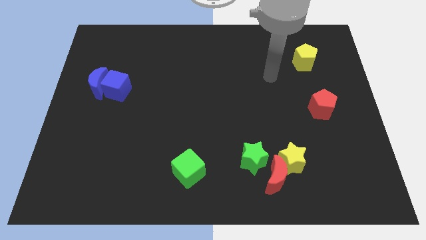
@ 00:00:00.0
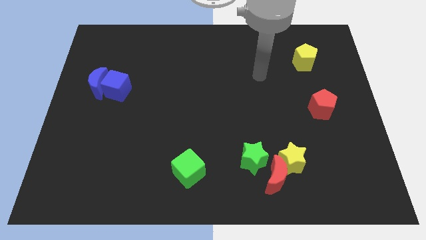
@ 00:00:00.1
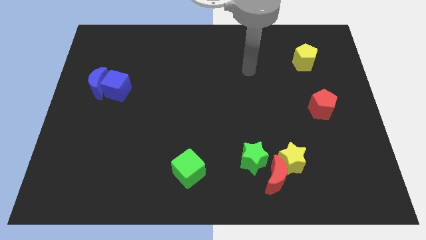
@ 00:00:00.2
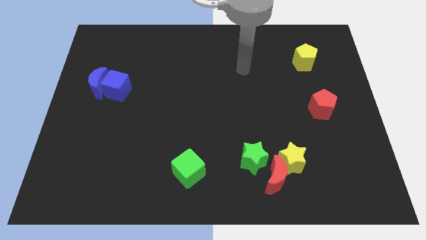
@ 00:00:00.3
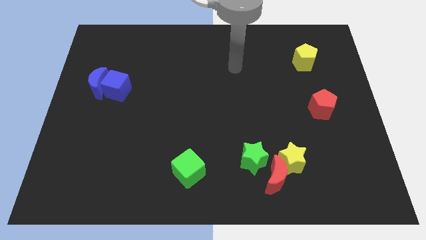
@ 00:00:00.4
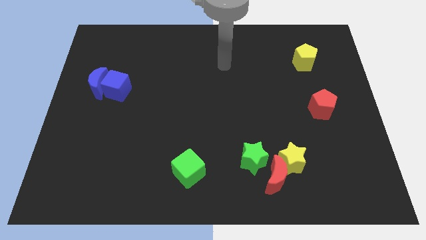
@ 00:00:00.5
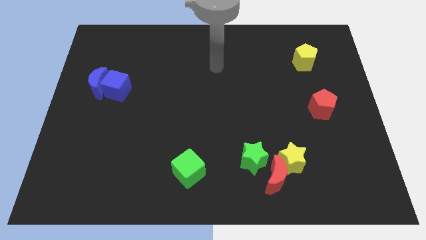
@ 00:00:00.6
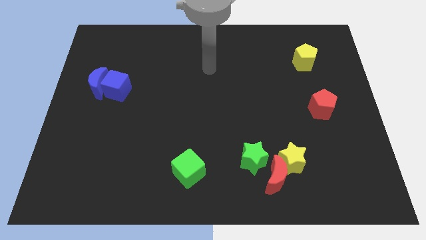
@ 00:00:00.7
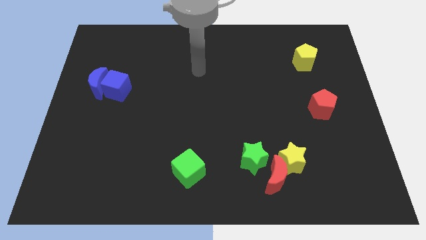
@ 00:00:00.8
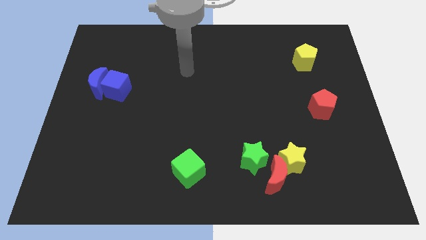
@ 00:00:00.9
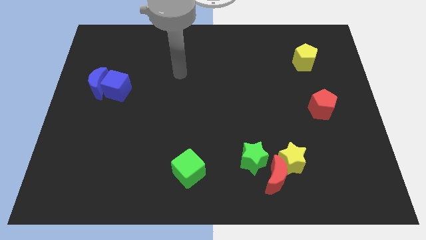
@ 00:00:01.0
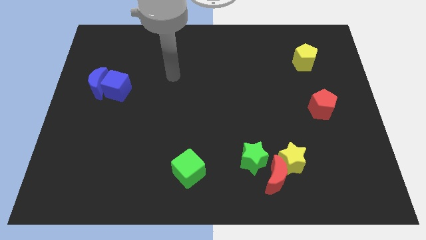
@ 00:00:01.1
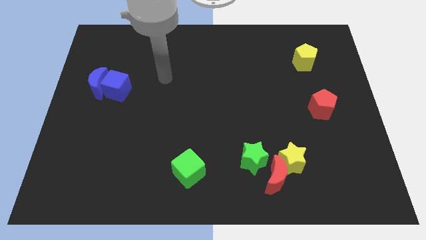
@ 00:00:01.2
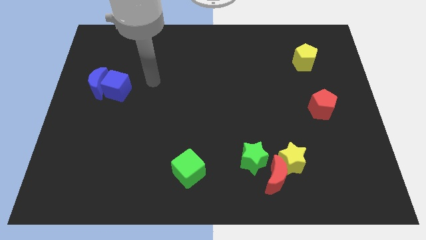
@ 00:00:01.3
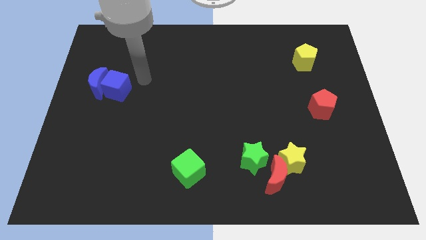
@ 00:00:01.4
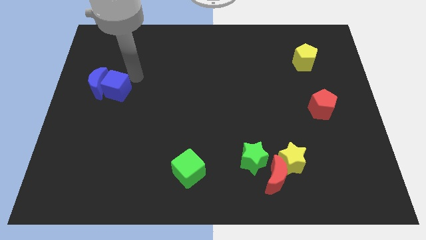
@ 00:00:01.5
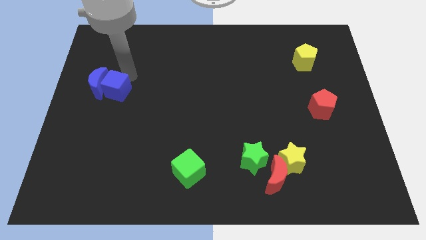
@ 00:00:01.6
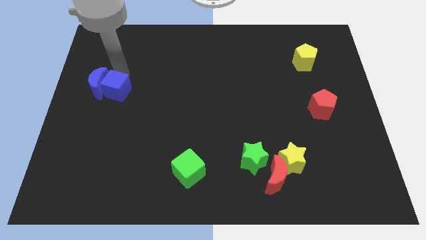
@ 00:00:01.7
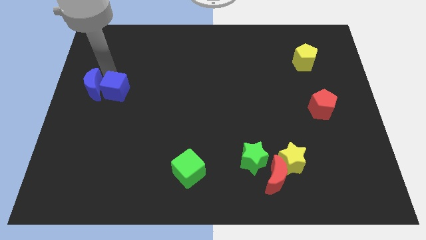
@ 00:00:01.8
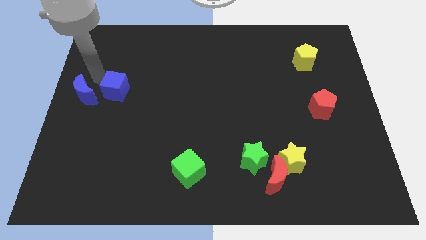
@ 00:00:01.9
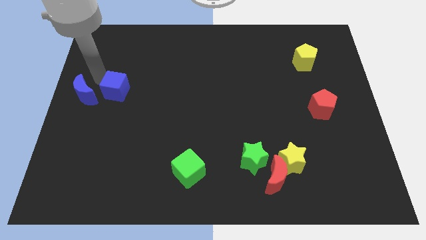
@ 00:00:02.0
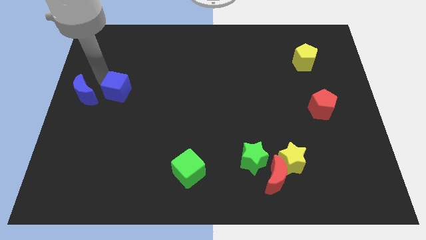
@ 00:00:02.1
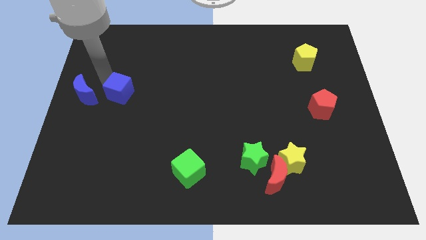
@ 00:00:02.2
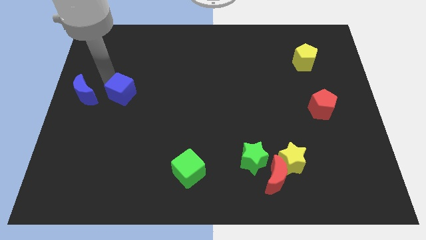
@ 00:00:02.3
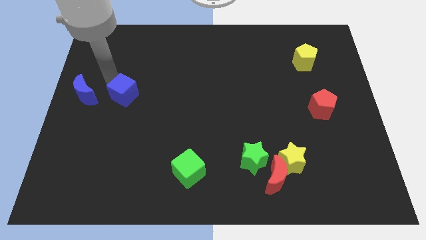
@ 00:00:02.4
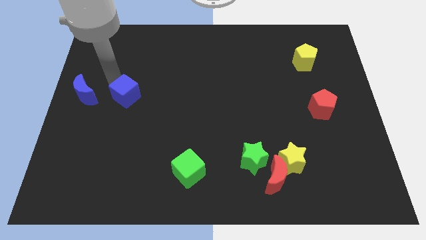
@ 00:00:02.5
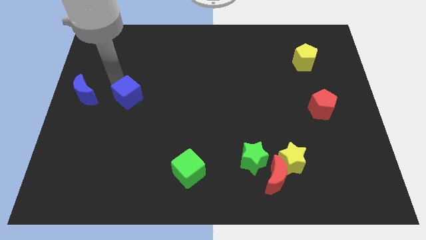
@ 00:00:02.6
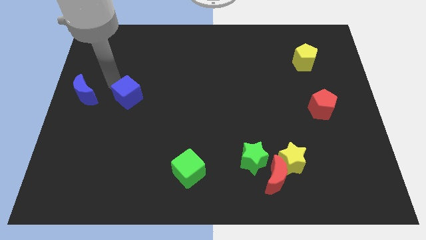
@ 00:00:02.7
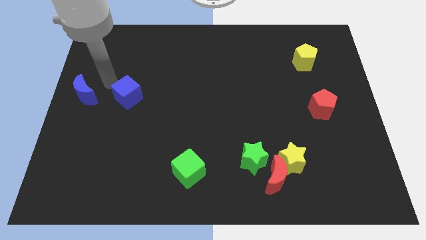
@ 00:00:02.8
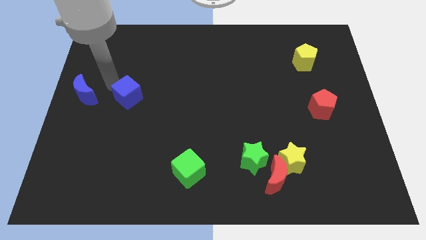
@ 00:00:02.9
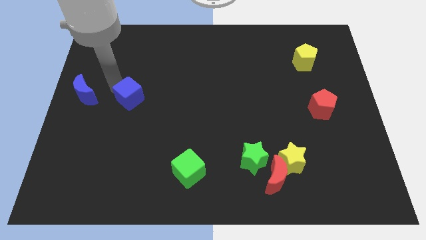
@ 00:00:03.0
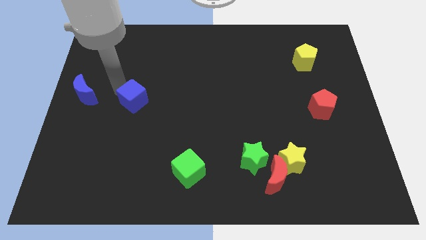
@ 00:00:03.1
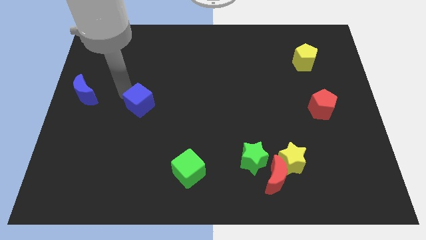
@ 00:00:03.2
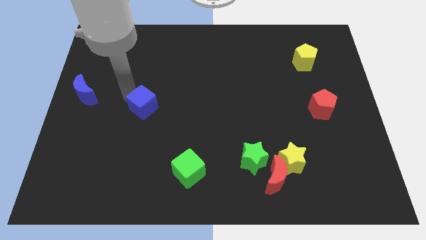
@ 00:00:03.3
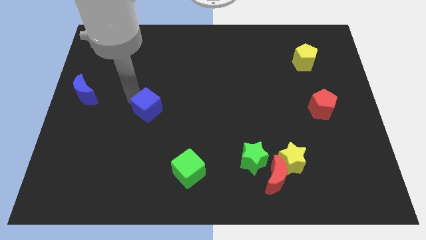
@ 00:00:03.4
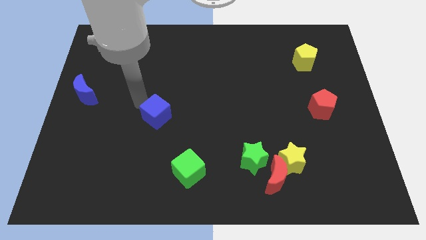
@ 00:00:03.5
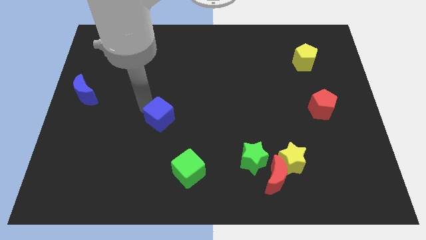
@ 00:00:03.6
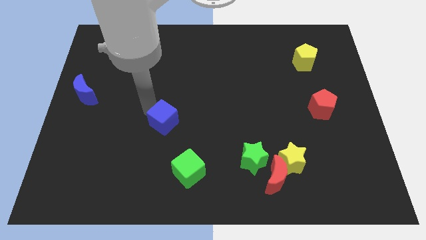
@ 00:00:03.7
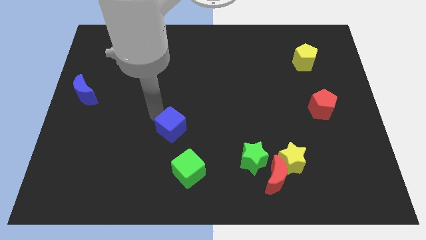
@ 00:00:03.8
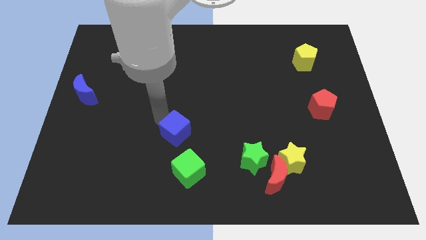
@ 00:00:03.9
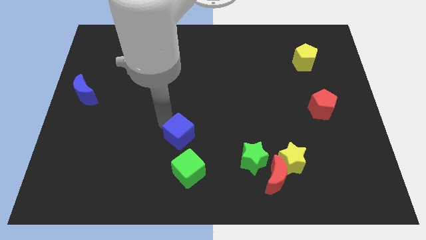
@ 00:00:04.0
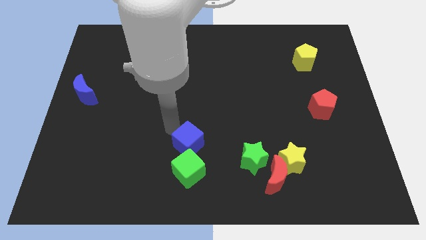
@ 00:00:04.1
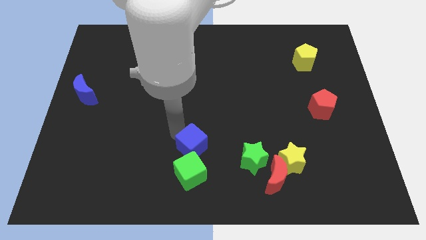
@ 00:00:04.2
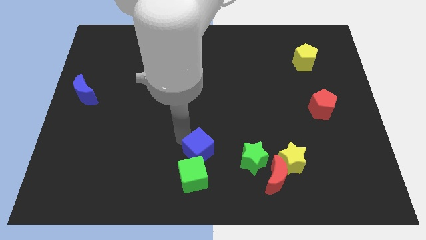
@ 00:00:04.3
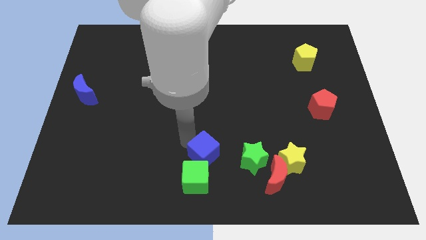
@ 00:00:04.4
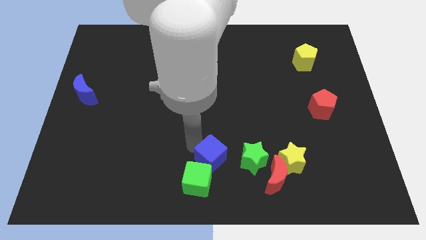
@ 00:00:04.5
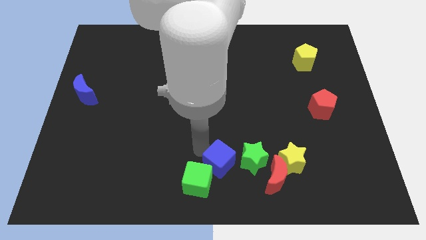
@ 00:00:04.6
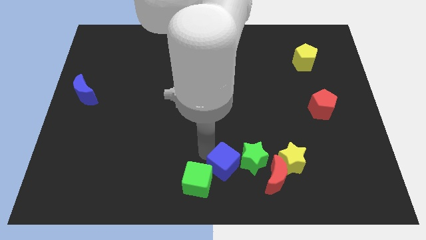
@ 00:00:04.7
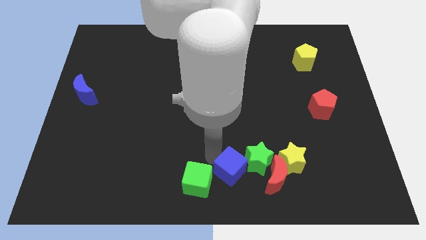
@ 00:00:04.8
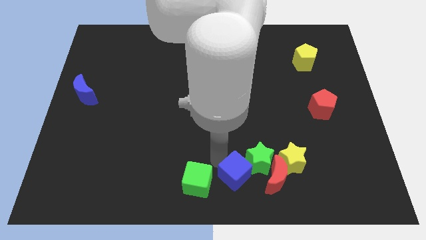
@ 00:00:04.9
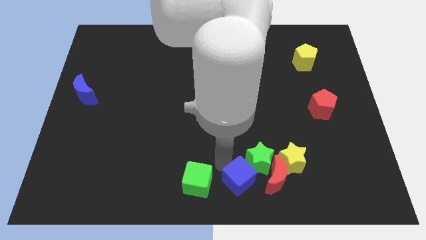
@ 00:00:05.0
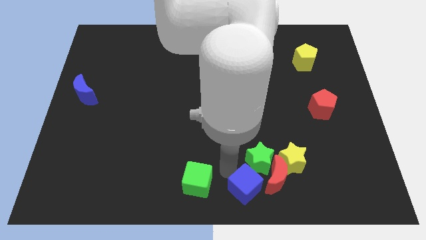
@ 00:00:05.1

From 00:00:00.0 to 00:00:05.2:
move the blue cube to the bottom left side of the yellow star

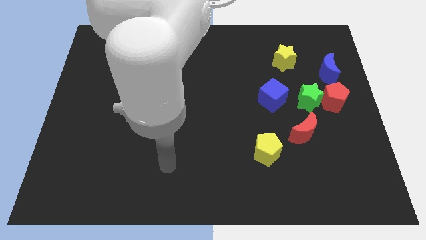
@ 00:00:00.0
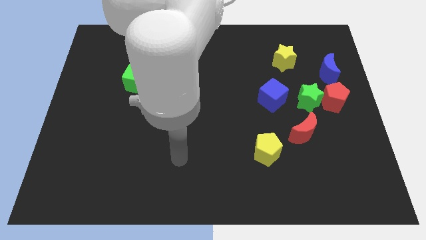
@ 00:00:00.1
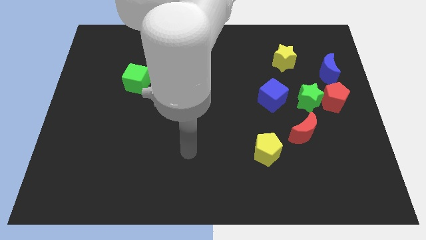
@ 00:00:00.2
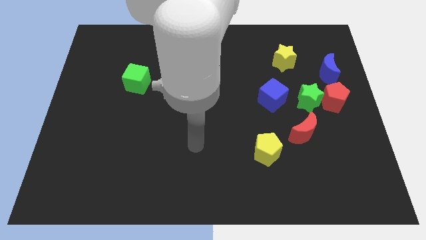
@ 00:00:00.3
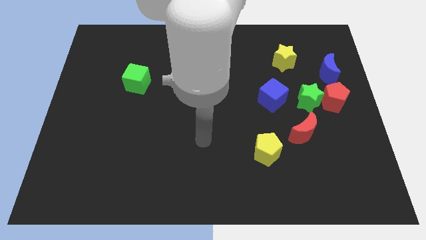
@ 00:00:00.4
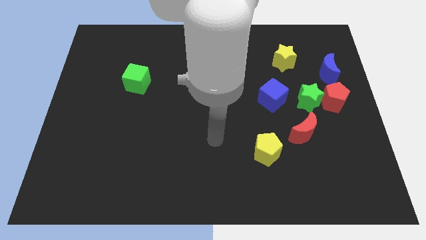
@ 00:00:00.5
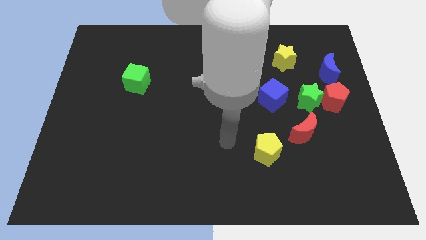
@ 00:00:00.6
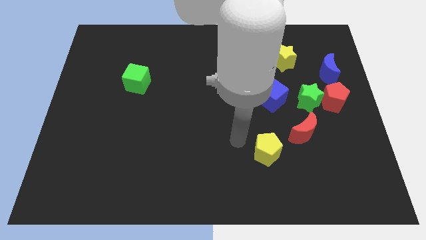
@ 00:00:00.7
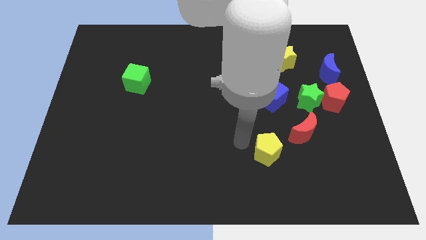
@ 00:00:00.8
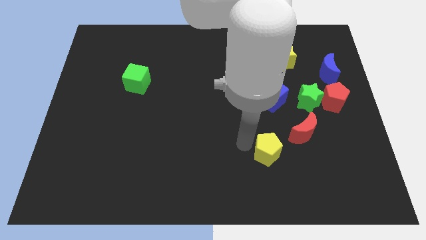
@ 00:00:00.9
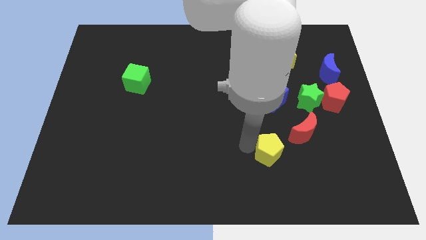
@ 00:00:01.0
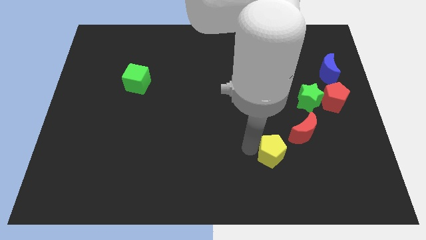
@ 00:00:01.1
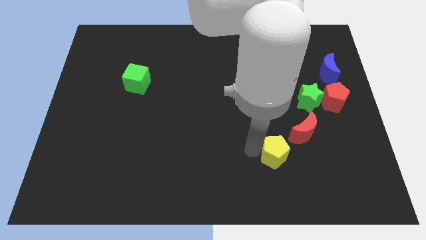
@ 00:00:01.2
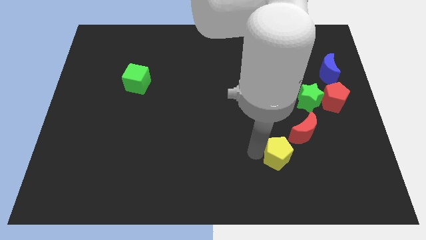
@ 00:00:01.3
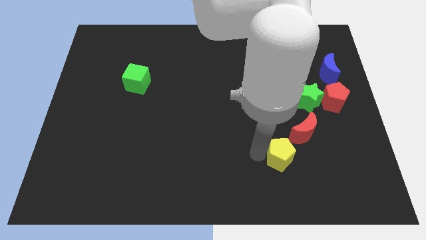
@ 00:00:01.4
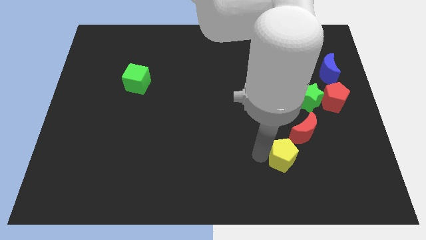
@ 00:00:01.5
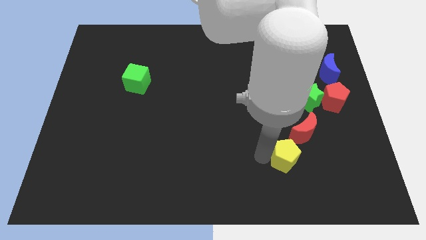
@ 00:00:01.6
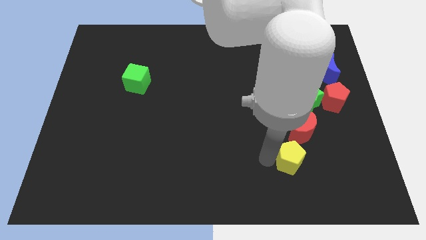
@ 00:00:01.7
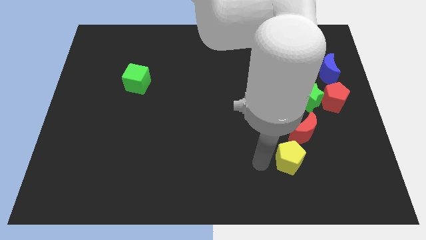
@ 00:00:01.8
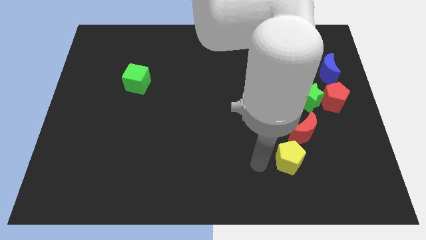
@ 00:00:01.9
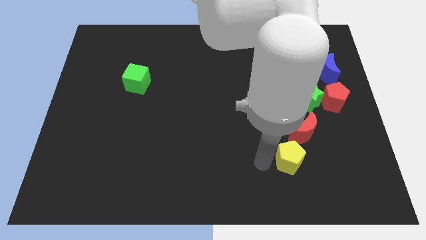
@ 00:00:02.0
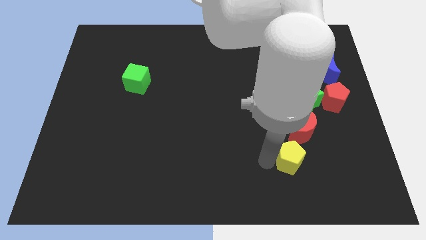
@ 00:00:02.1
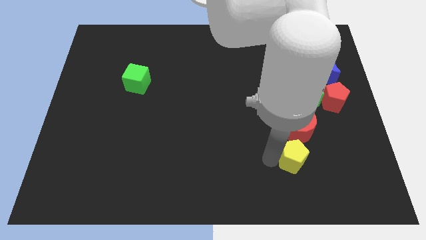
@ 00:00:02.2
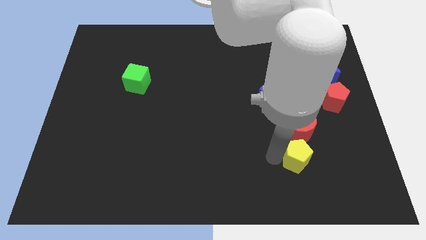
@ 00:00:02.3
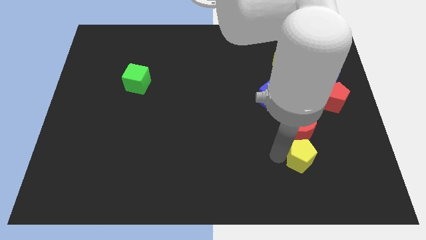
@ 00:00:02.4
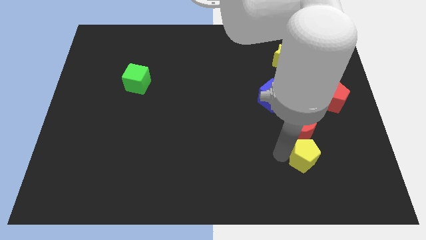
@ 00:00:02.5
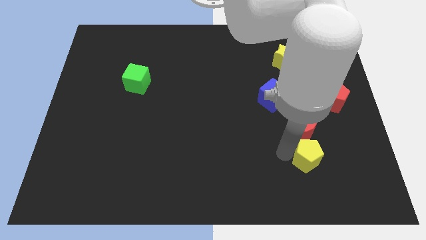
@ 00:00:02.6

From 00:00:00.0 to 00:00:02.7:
slide the yellow pentagon to the bottom right side of the red moon

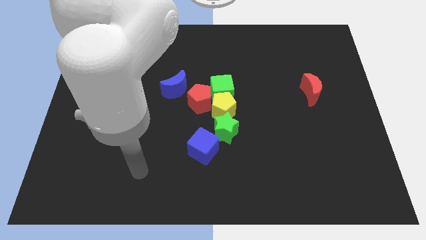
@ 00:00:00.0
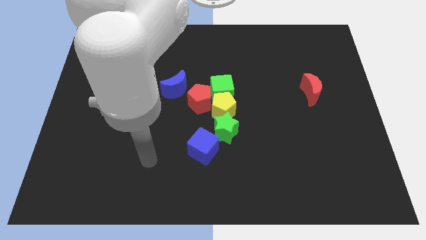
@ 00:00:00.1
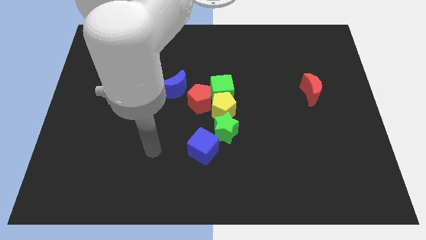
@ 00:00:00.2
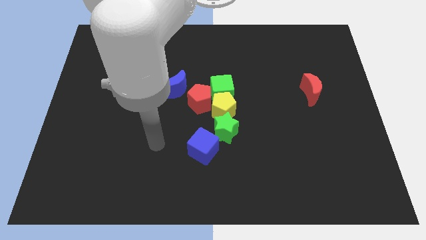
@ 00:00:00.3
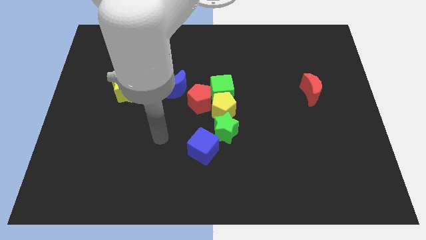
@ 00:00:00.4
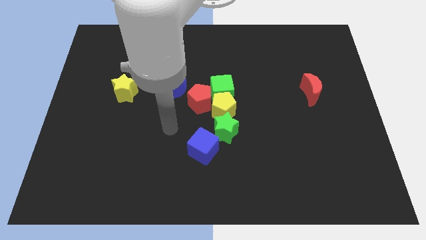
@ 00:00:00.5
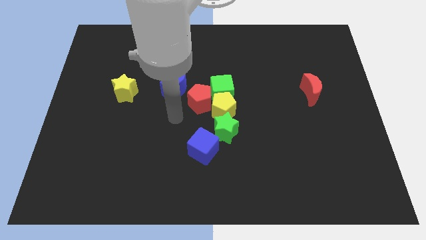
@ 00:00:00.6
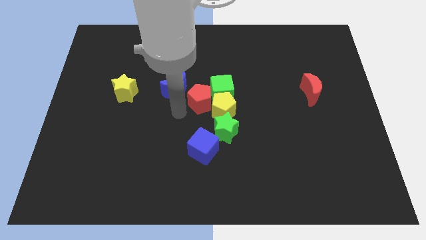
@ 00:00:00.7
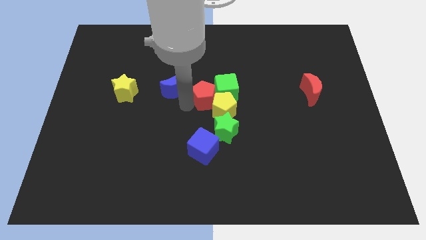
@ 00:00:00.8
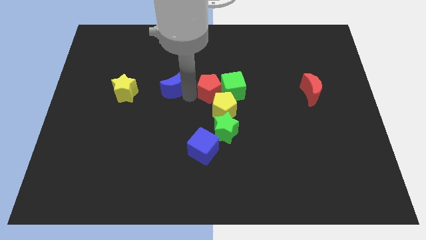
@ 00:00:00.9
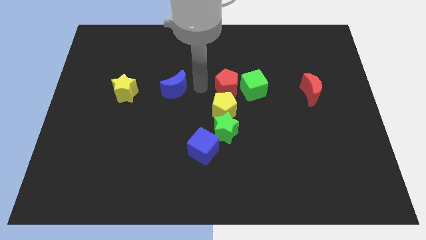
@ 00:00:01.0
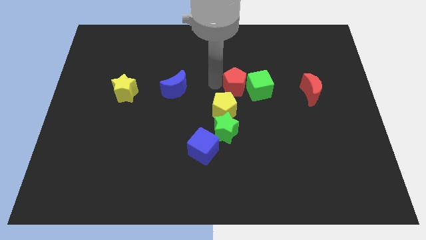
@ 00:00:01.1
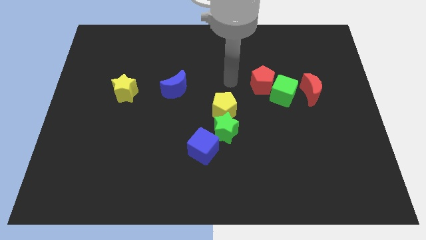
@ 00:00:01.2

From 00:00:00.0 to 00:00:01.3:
put the green cube diagonally down and to the left of the red moon
